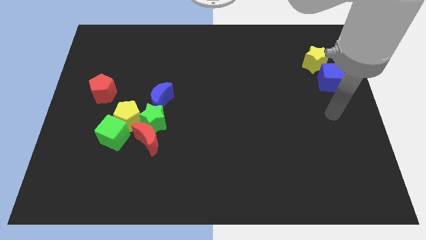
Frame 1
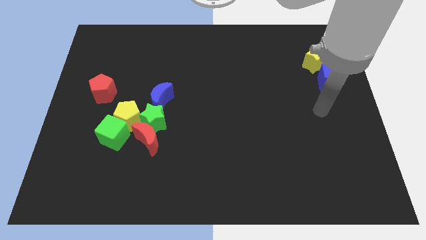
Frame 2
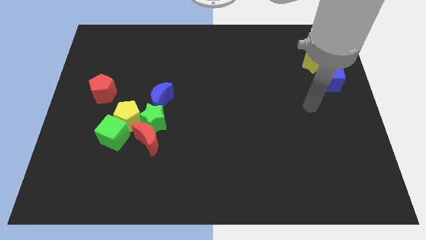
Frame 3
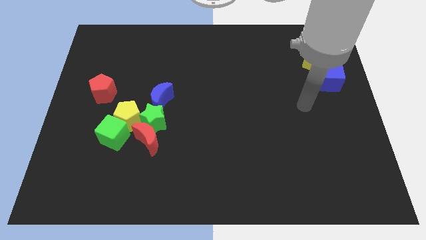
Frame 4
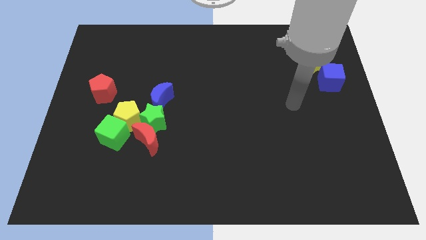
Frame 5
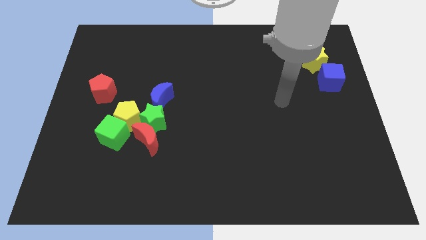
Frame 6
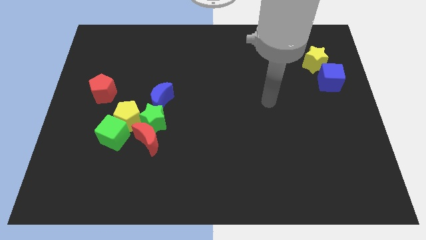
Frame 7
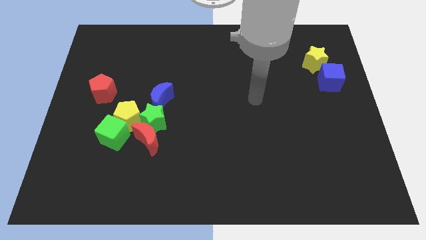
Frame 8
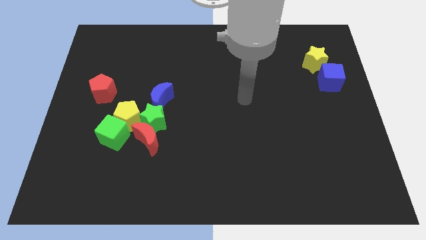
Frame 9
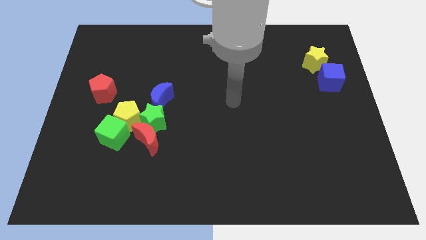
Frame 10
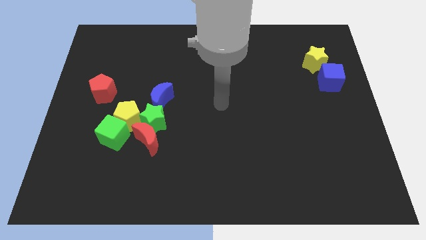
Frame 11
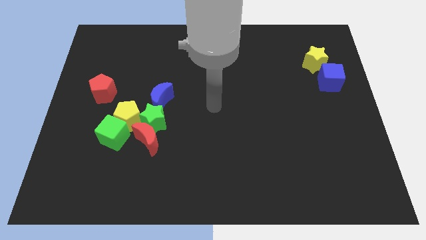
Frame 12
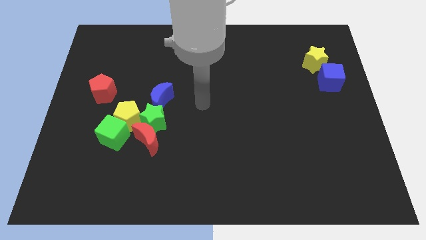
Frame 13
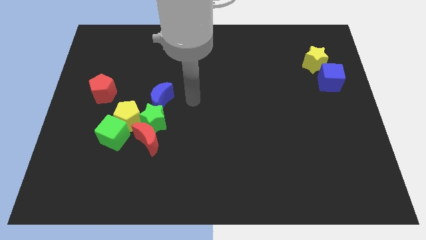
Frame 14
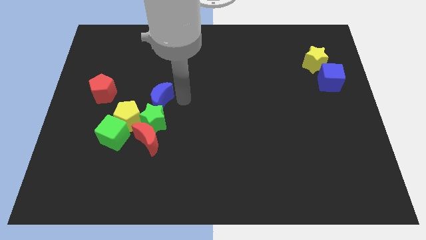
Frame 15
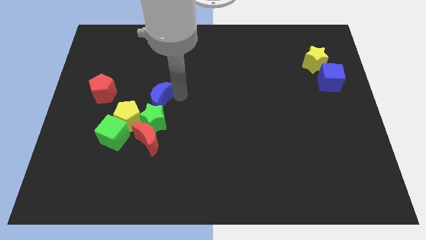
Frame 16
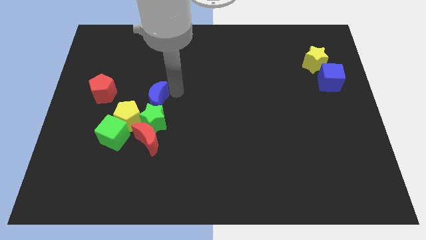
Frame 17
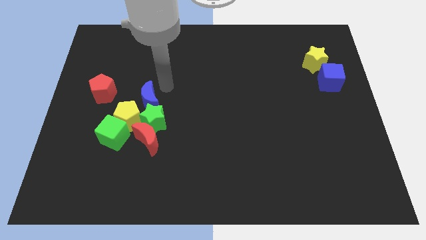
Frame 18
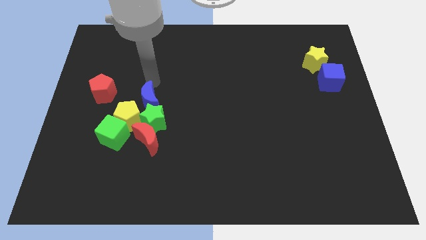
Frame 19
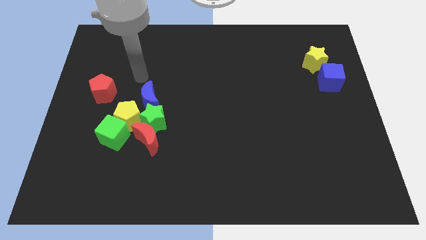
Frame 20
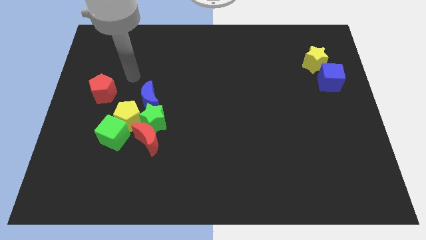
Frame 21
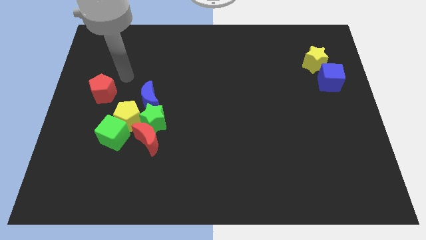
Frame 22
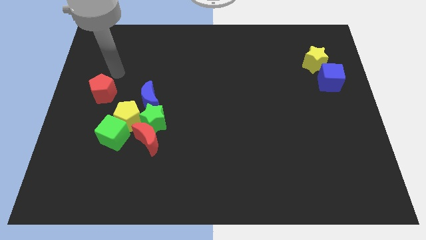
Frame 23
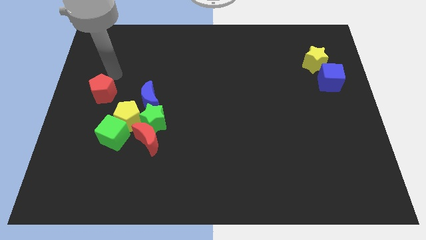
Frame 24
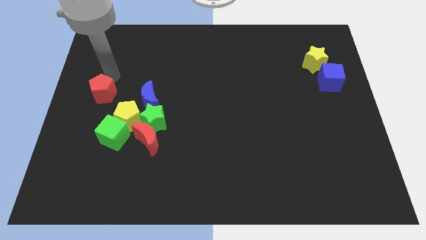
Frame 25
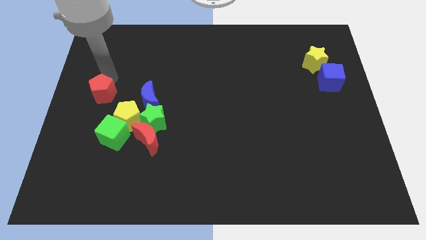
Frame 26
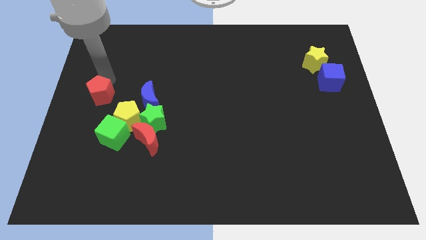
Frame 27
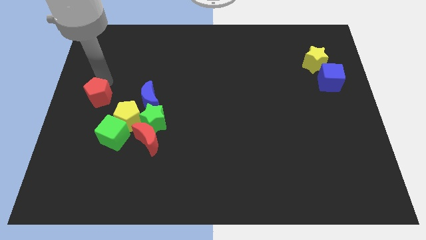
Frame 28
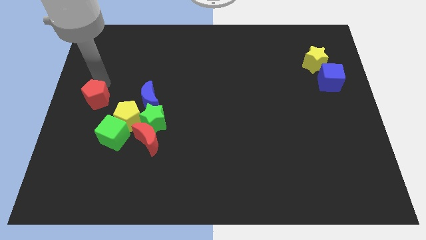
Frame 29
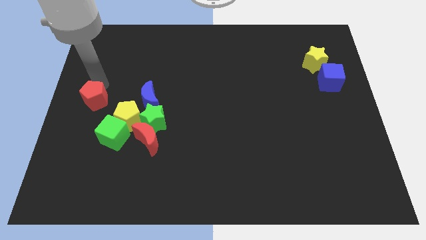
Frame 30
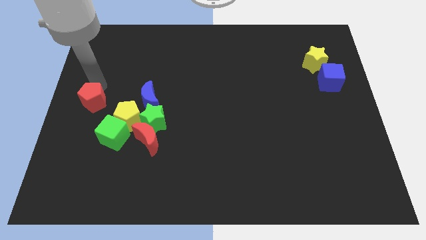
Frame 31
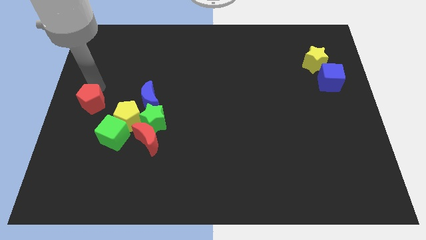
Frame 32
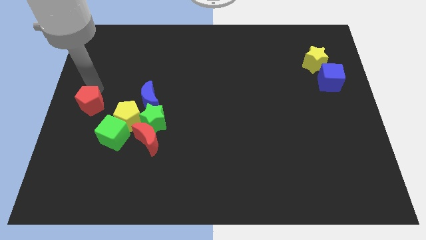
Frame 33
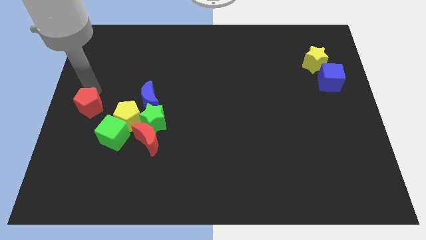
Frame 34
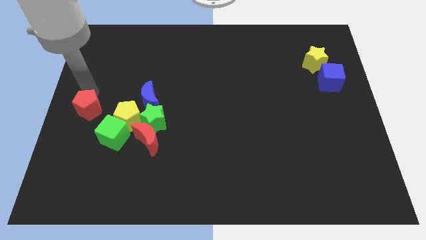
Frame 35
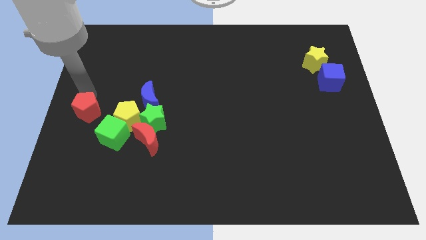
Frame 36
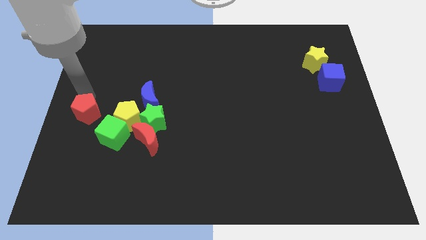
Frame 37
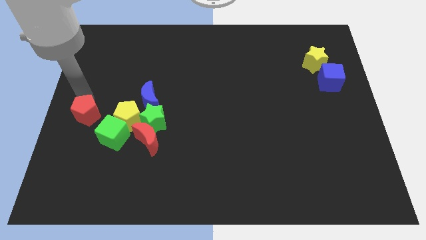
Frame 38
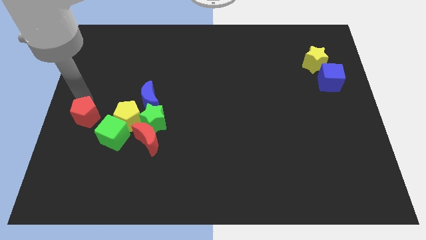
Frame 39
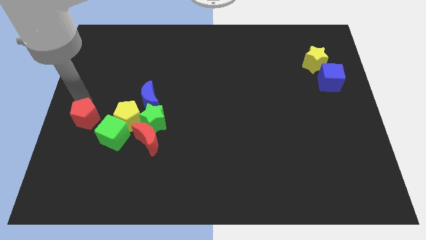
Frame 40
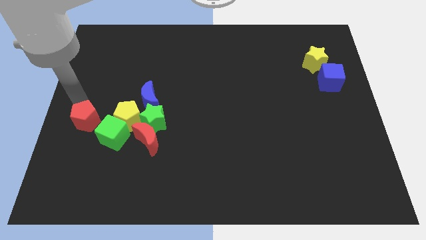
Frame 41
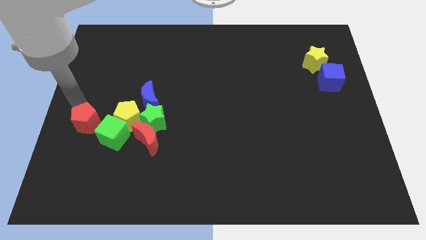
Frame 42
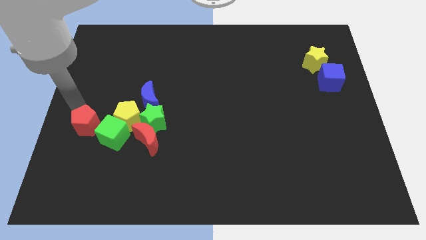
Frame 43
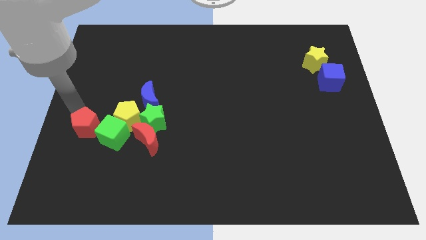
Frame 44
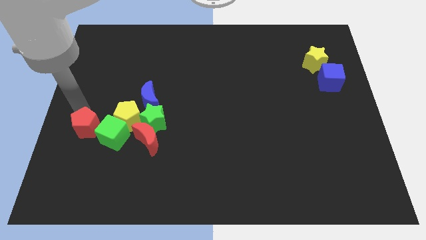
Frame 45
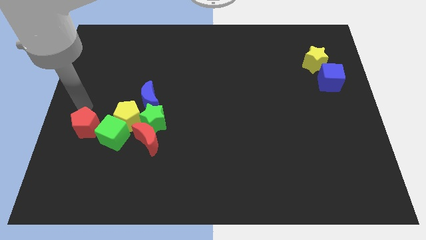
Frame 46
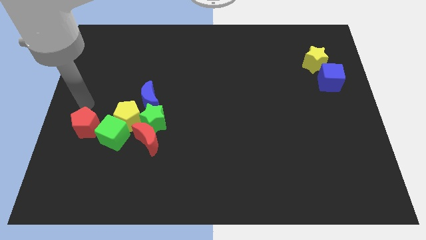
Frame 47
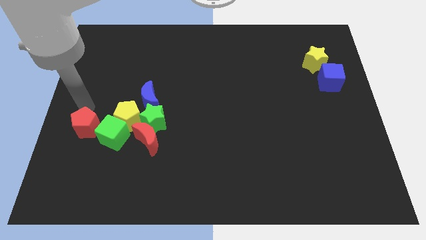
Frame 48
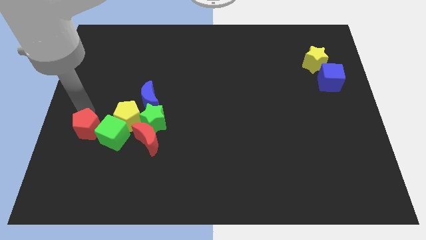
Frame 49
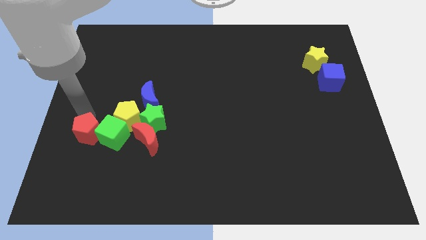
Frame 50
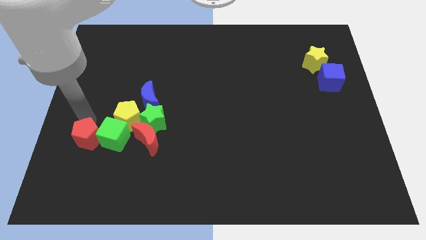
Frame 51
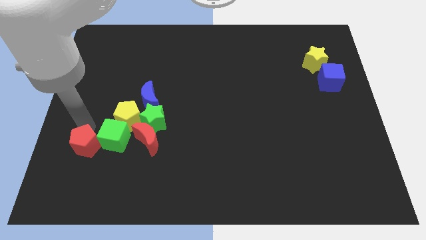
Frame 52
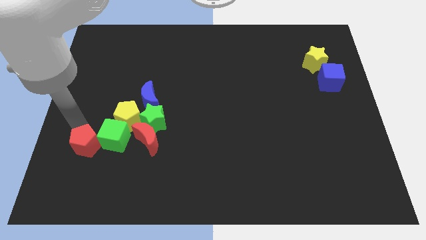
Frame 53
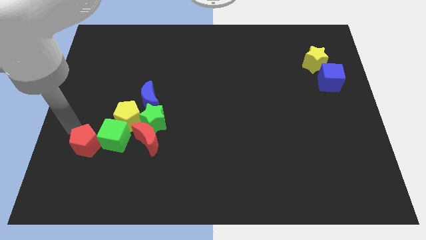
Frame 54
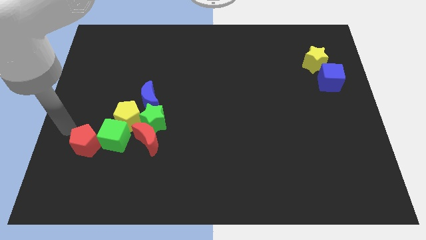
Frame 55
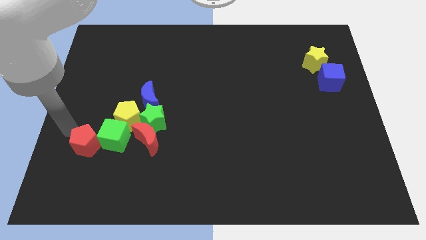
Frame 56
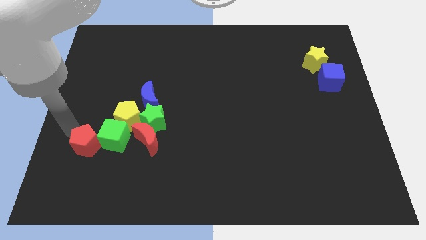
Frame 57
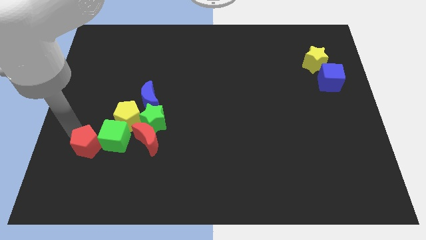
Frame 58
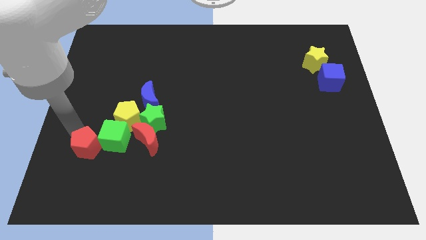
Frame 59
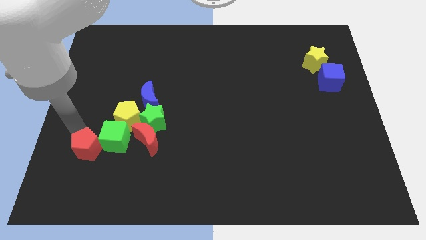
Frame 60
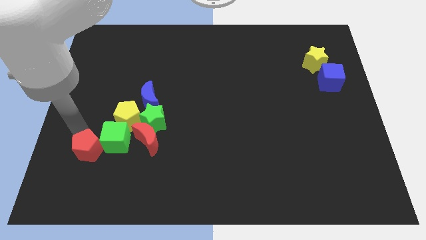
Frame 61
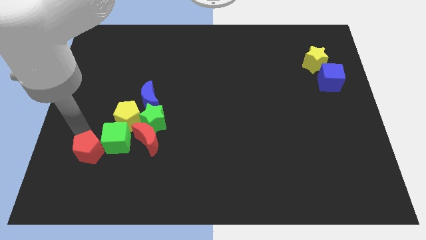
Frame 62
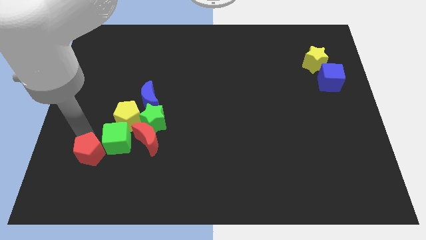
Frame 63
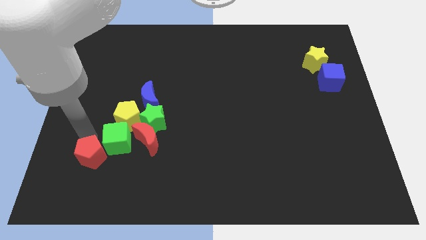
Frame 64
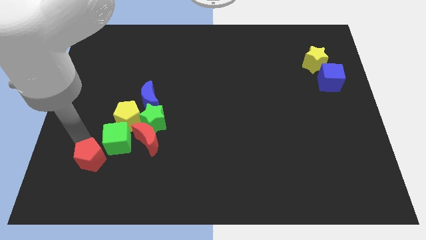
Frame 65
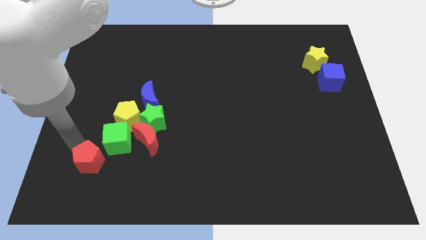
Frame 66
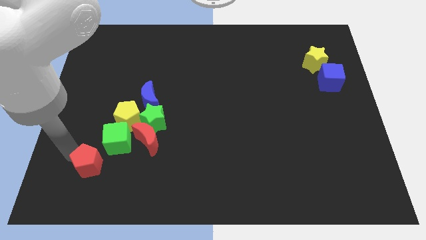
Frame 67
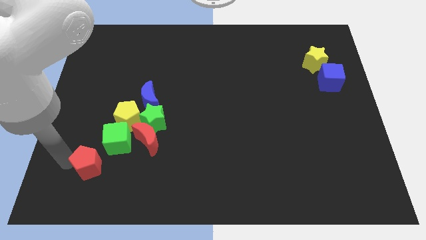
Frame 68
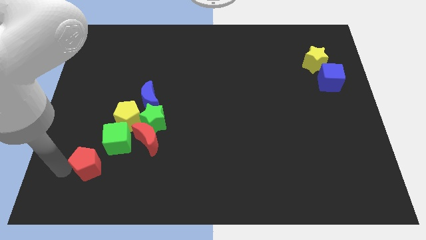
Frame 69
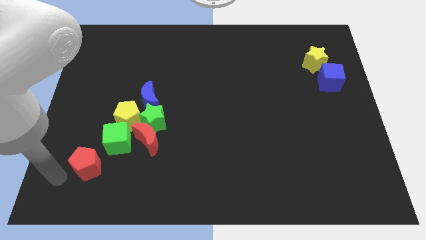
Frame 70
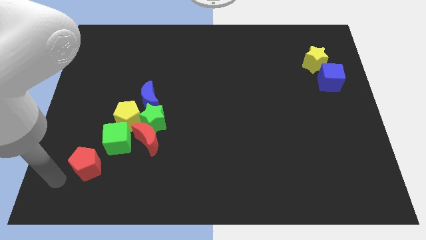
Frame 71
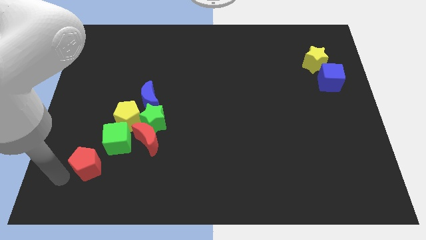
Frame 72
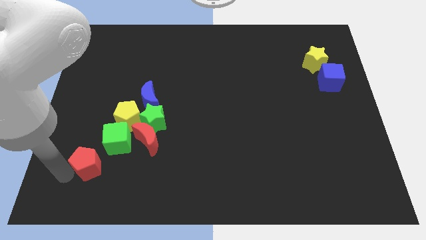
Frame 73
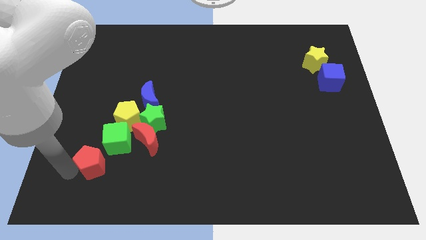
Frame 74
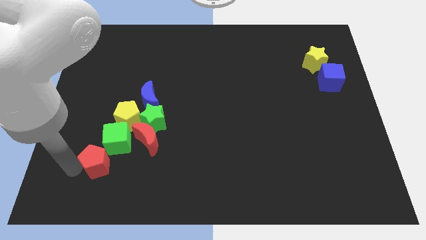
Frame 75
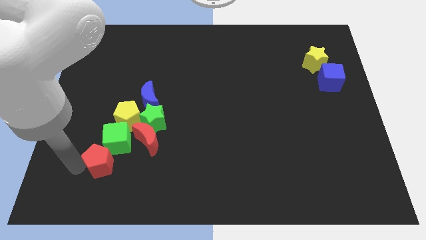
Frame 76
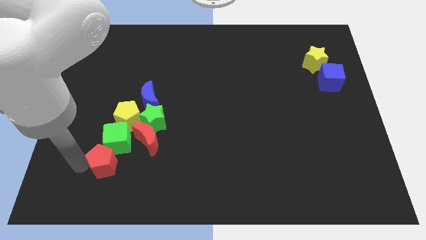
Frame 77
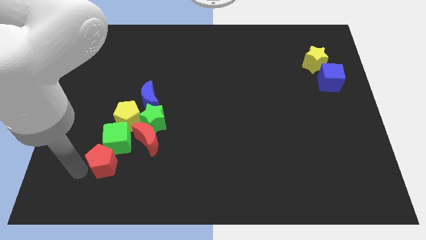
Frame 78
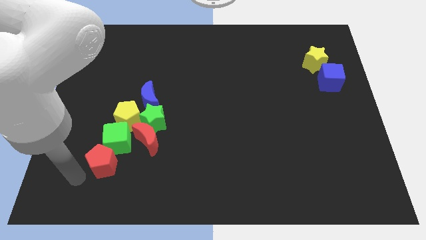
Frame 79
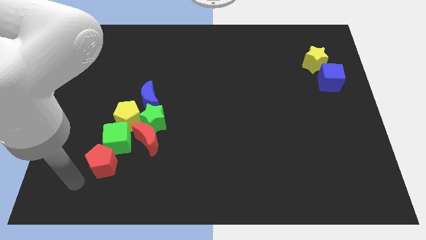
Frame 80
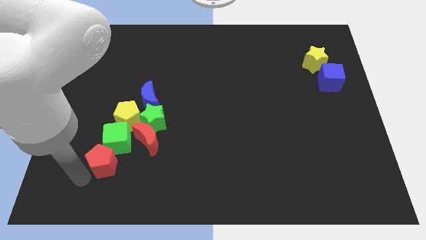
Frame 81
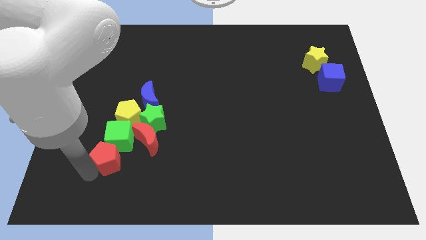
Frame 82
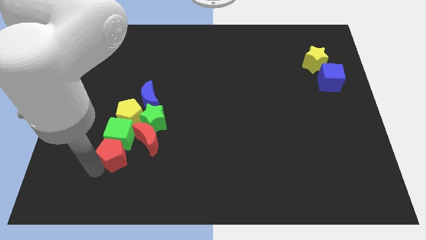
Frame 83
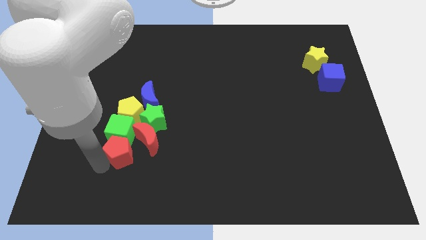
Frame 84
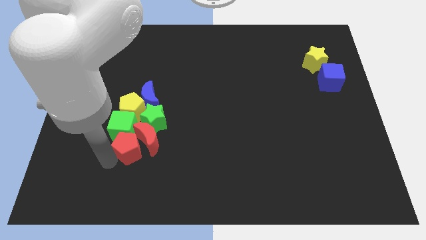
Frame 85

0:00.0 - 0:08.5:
slide the red pentagon close to the red moon
